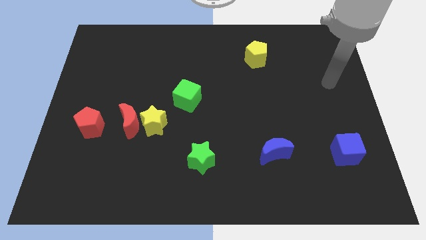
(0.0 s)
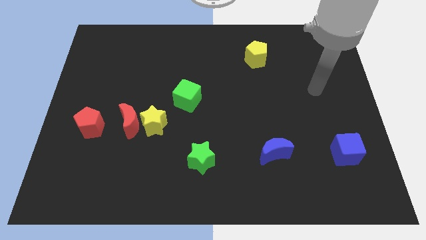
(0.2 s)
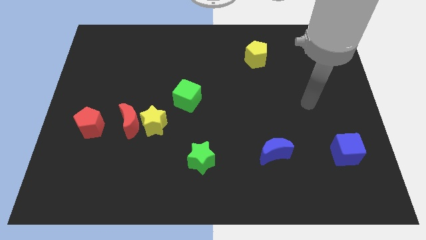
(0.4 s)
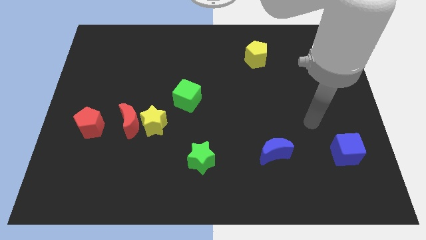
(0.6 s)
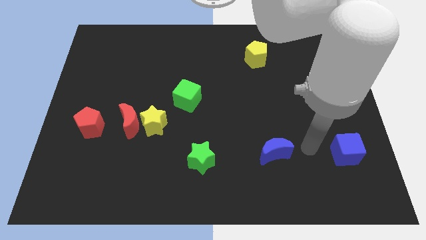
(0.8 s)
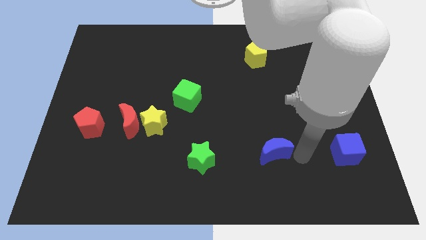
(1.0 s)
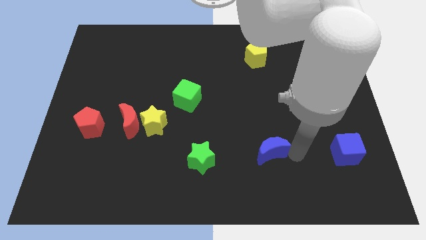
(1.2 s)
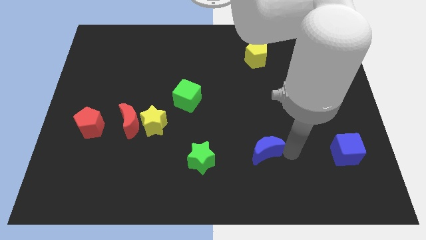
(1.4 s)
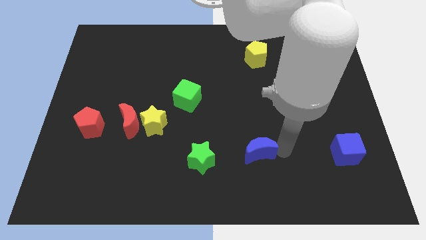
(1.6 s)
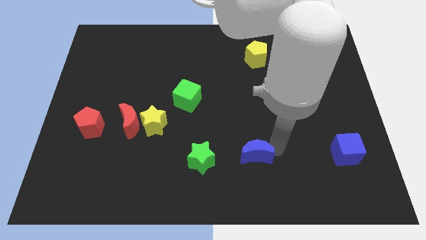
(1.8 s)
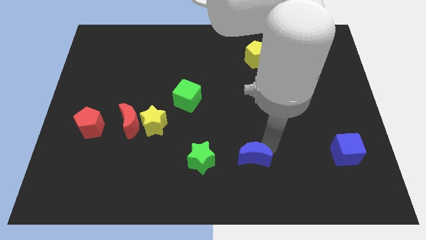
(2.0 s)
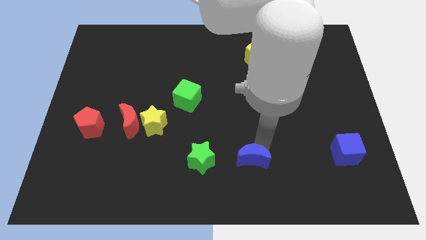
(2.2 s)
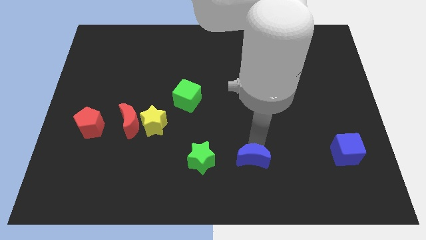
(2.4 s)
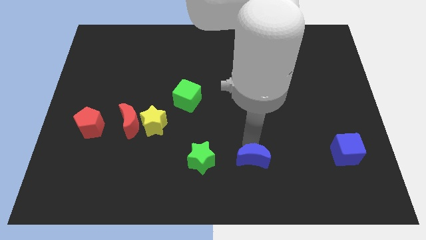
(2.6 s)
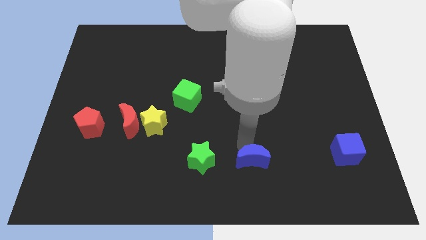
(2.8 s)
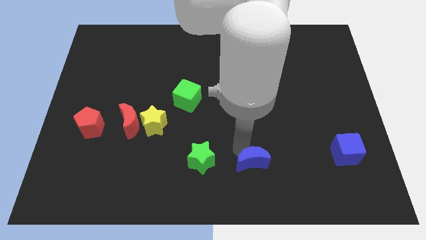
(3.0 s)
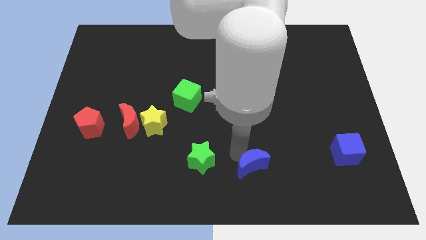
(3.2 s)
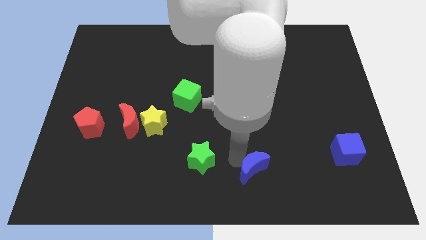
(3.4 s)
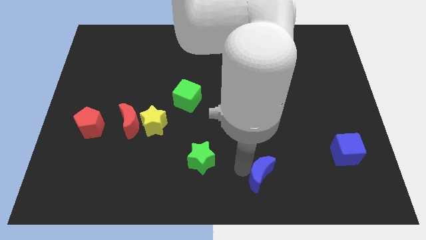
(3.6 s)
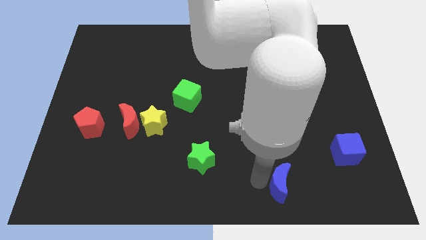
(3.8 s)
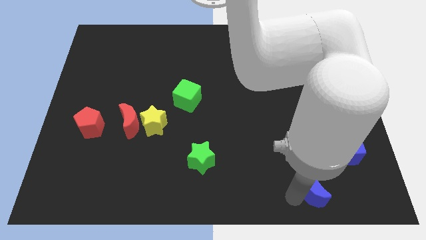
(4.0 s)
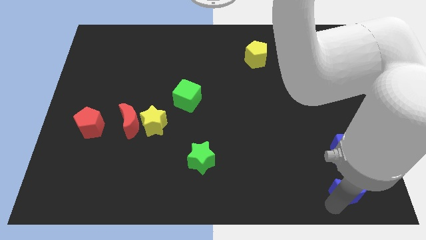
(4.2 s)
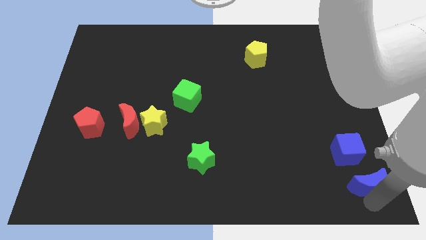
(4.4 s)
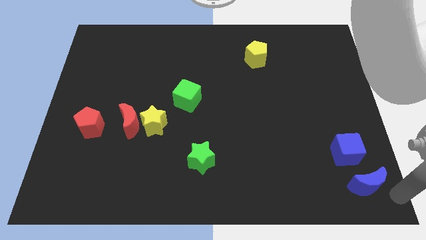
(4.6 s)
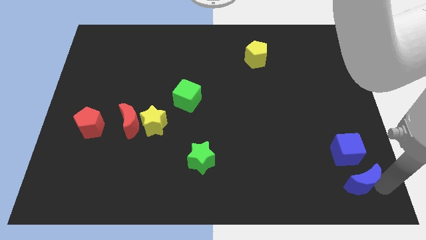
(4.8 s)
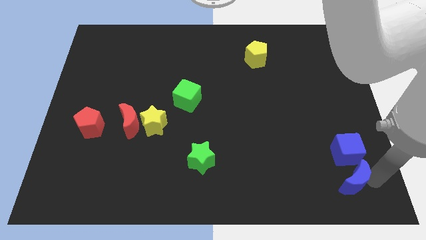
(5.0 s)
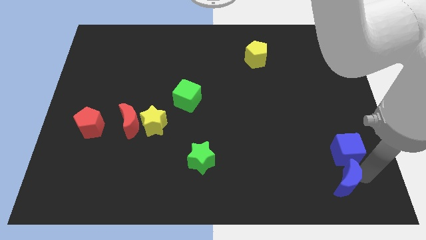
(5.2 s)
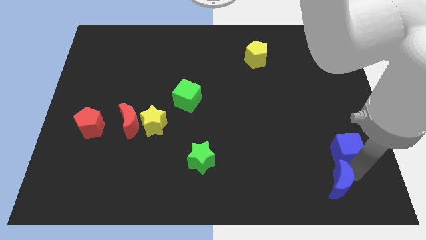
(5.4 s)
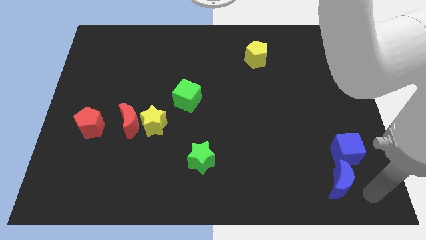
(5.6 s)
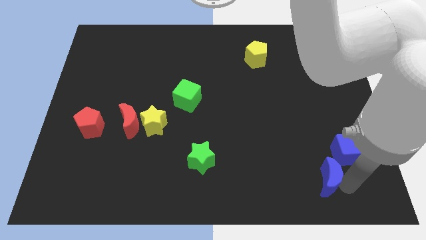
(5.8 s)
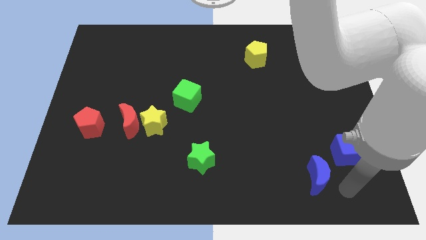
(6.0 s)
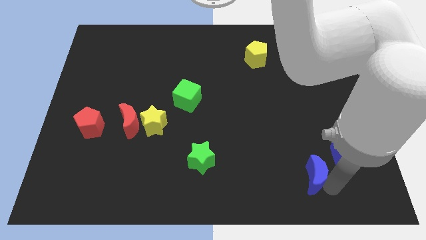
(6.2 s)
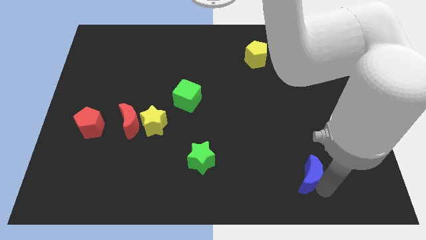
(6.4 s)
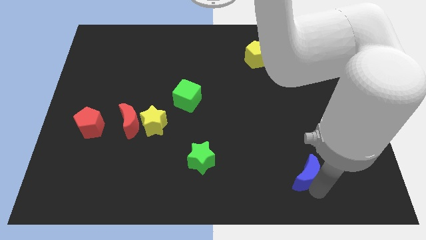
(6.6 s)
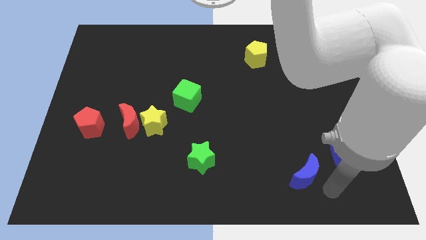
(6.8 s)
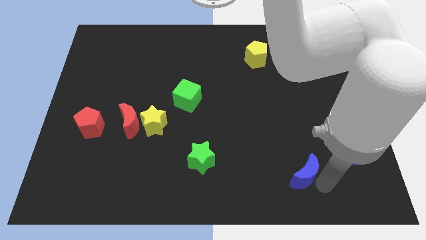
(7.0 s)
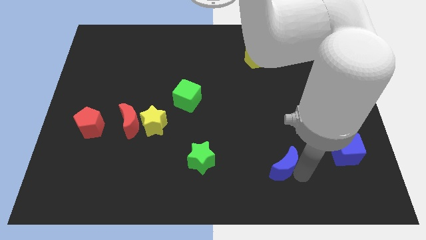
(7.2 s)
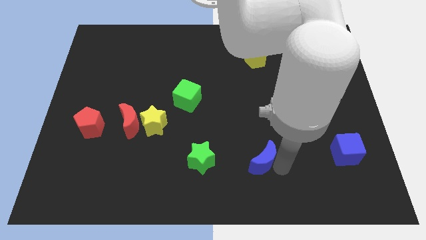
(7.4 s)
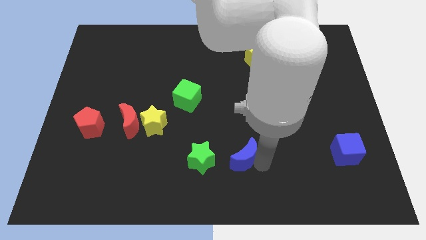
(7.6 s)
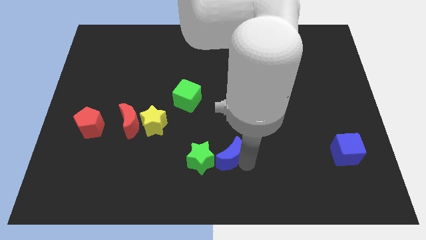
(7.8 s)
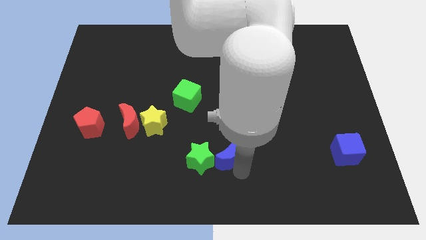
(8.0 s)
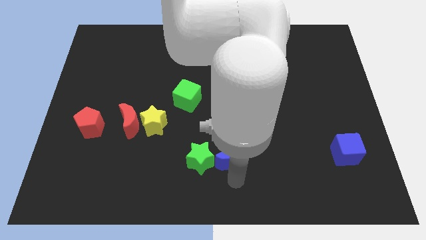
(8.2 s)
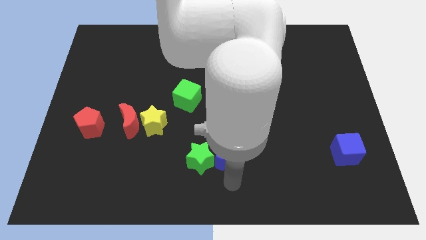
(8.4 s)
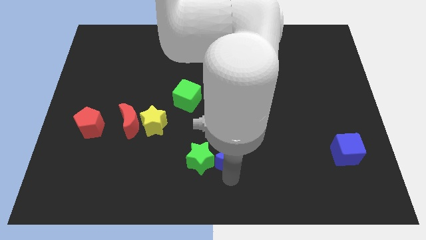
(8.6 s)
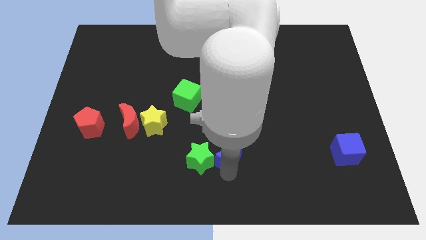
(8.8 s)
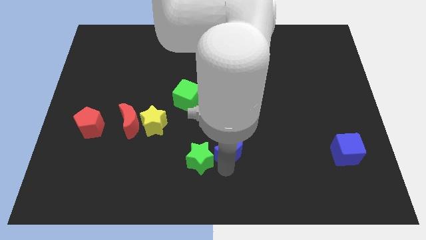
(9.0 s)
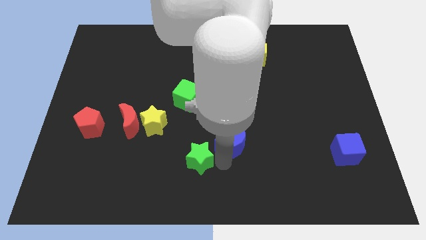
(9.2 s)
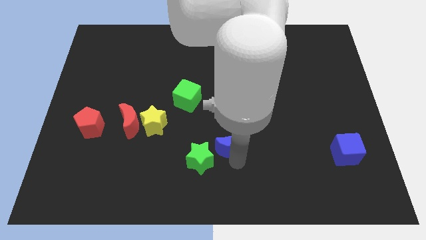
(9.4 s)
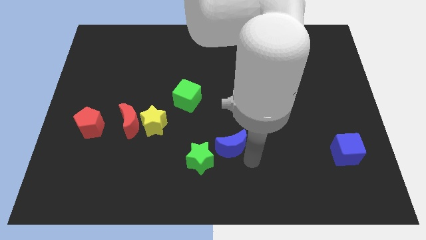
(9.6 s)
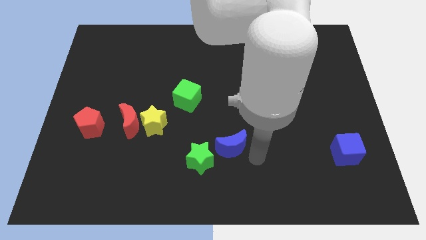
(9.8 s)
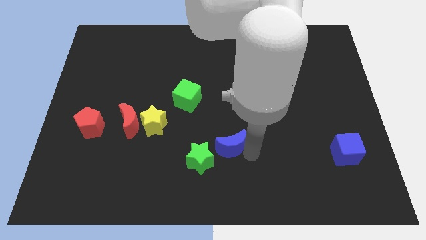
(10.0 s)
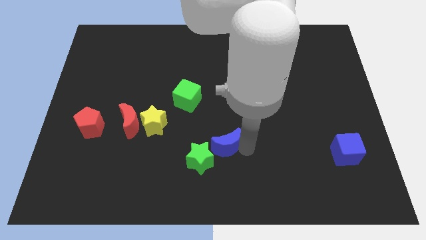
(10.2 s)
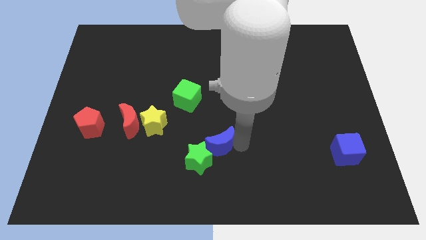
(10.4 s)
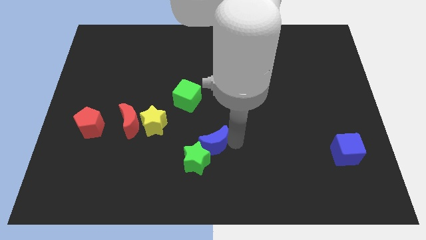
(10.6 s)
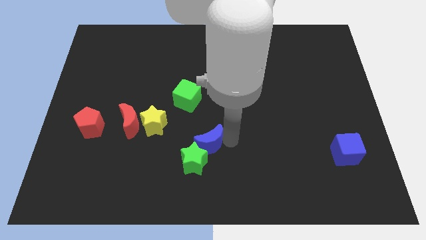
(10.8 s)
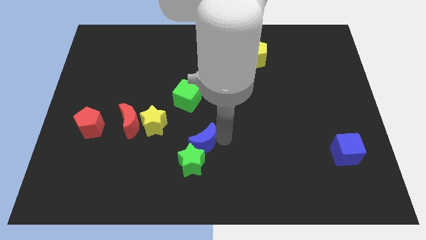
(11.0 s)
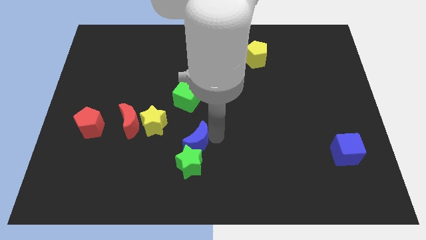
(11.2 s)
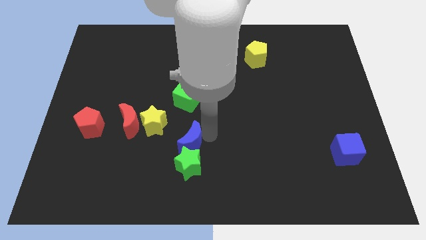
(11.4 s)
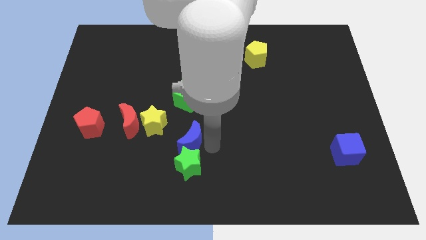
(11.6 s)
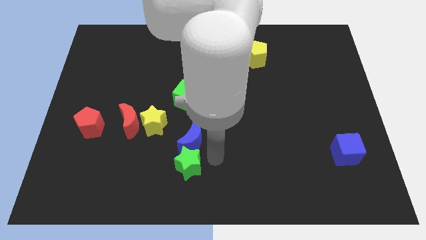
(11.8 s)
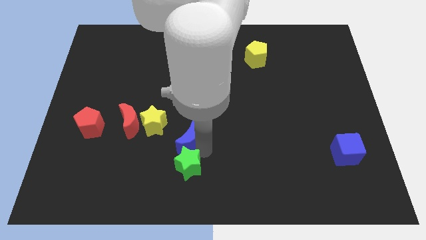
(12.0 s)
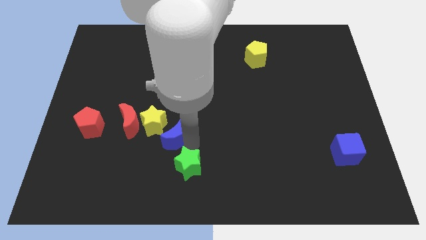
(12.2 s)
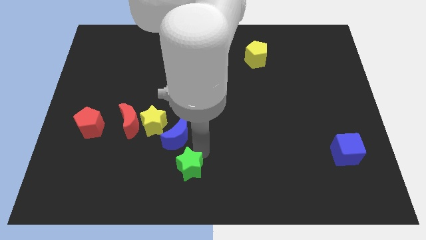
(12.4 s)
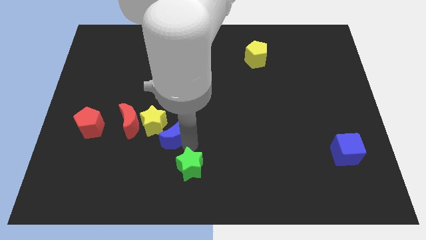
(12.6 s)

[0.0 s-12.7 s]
slide the blue moon to the yellow star

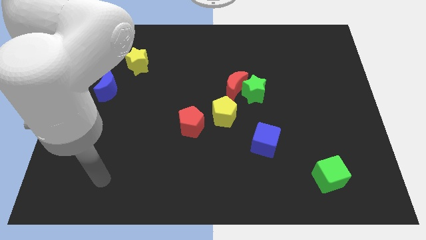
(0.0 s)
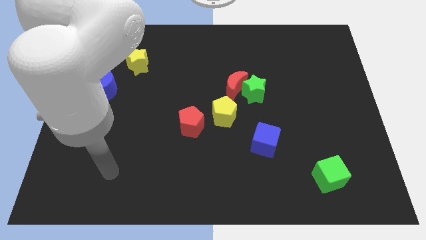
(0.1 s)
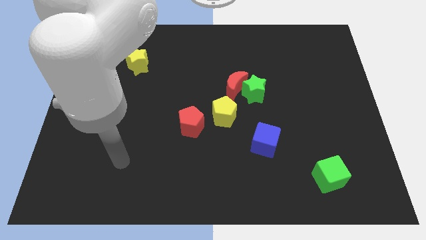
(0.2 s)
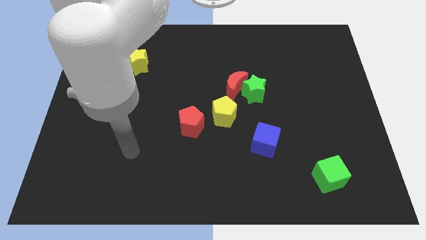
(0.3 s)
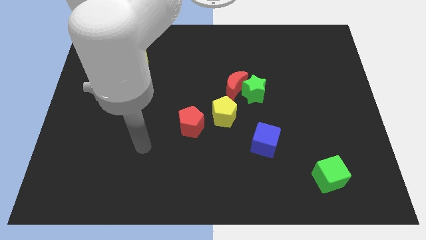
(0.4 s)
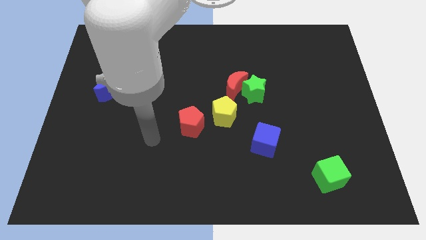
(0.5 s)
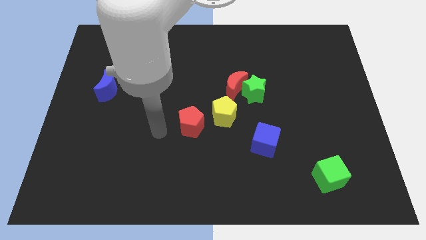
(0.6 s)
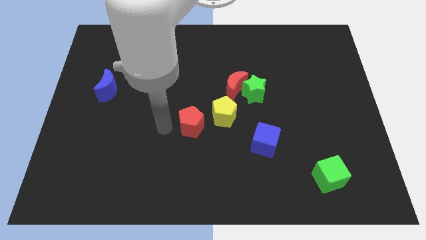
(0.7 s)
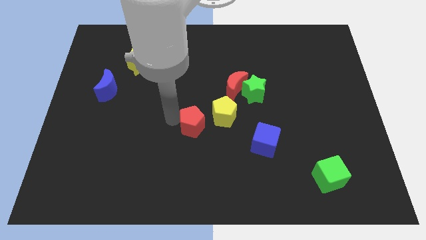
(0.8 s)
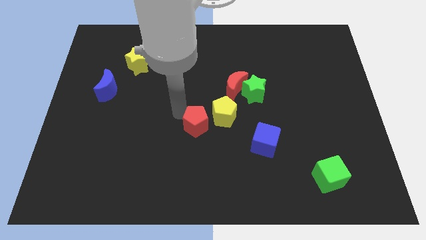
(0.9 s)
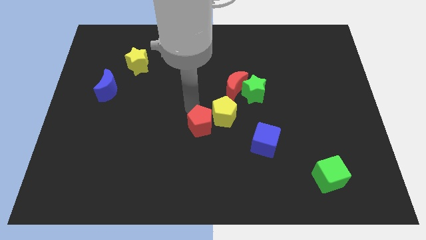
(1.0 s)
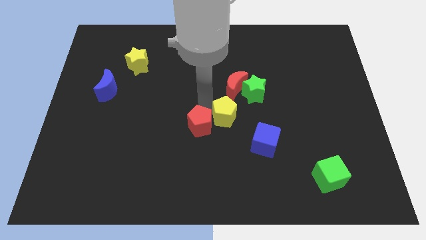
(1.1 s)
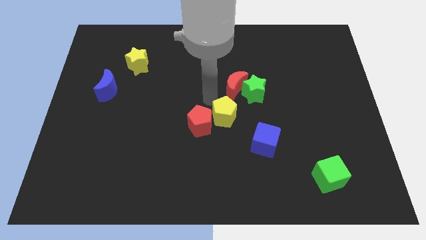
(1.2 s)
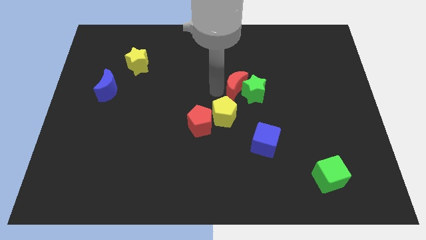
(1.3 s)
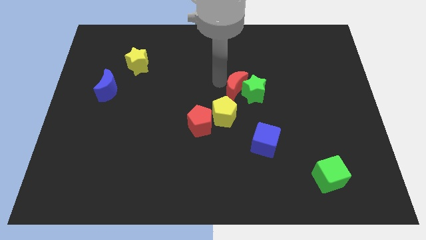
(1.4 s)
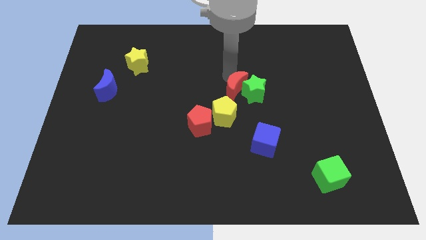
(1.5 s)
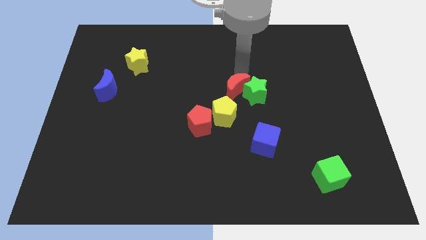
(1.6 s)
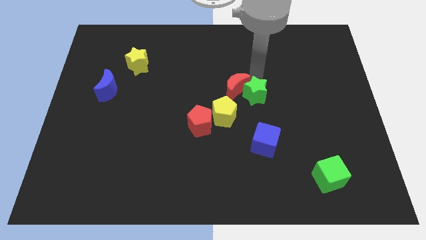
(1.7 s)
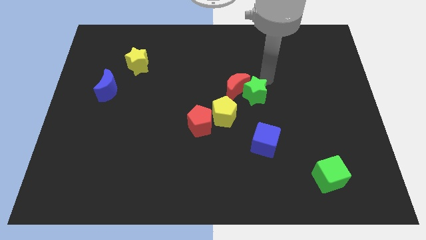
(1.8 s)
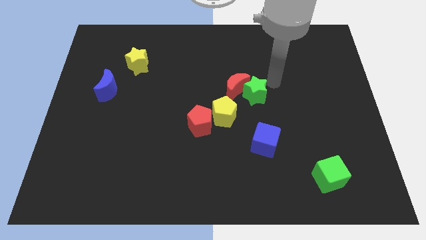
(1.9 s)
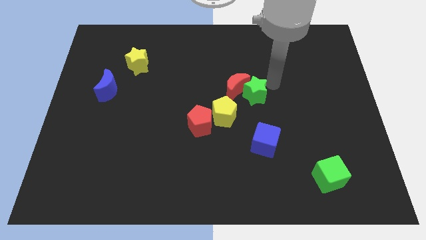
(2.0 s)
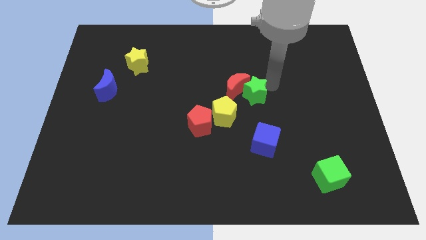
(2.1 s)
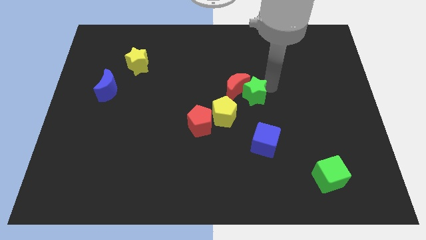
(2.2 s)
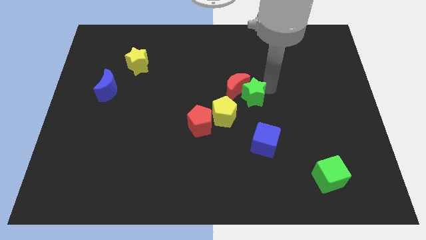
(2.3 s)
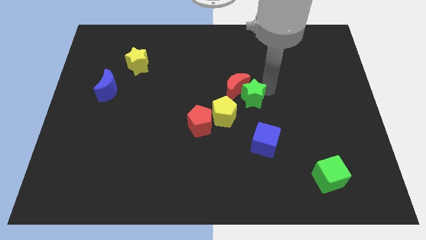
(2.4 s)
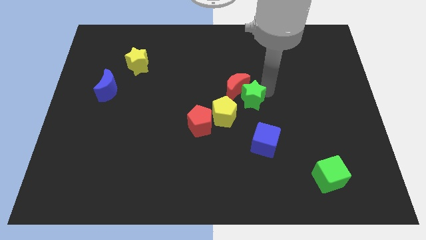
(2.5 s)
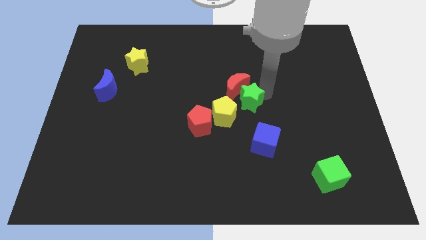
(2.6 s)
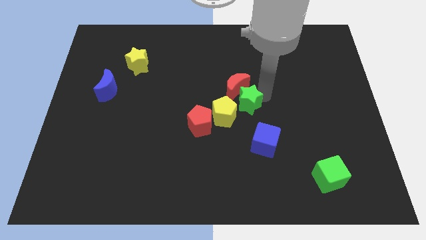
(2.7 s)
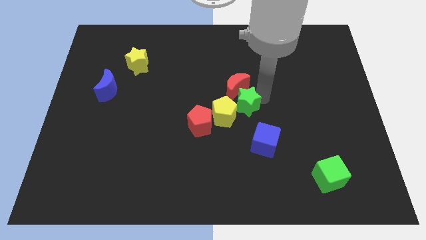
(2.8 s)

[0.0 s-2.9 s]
push the green star next to the yellow pentagon
